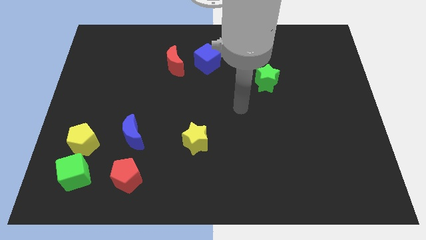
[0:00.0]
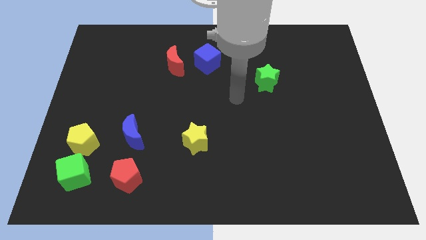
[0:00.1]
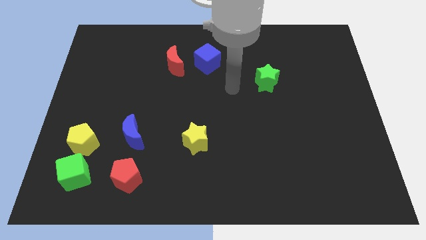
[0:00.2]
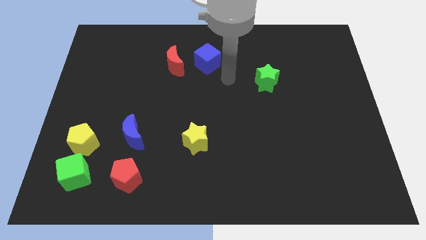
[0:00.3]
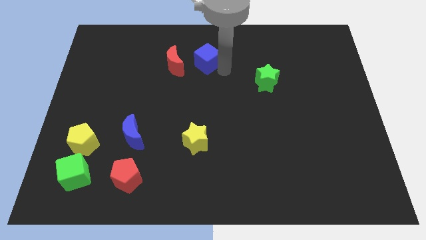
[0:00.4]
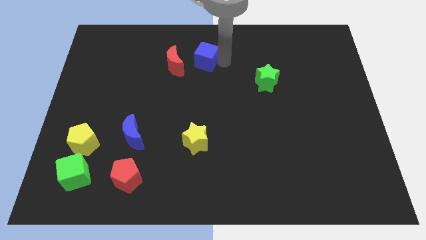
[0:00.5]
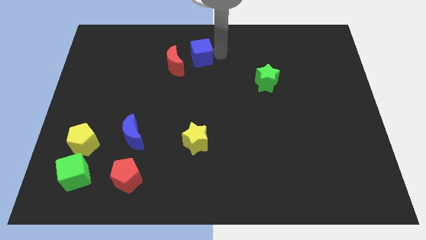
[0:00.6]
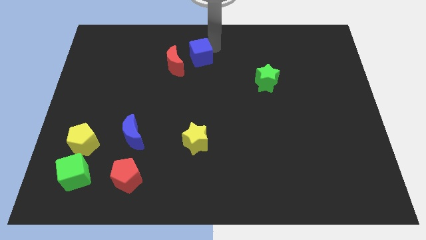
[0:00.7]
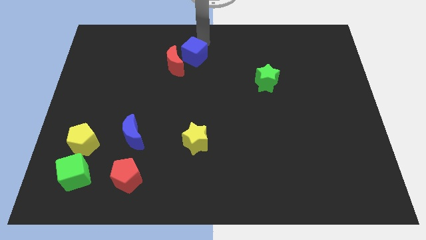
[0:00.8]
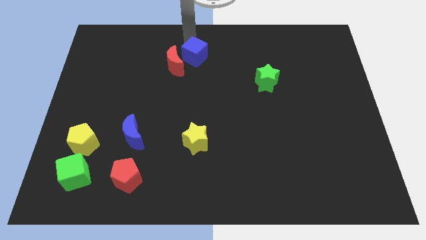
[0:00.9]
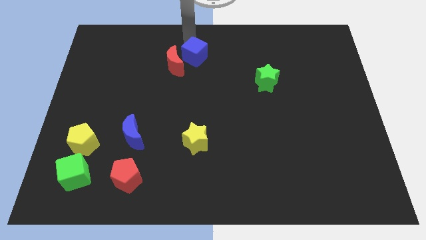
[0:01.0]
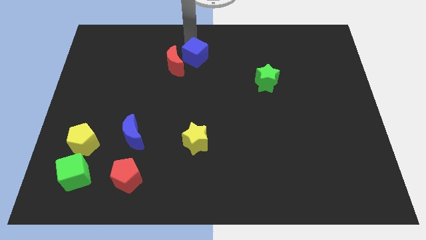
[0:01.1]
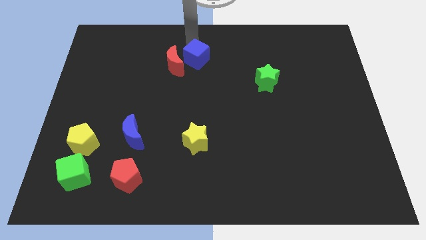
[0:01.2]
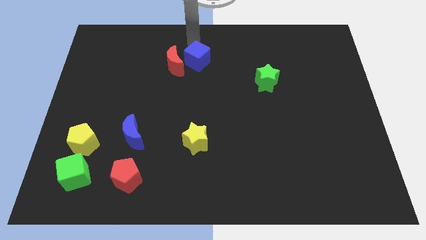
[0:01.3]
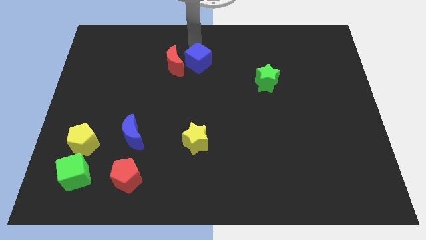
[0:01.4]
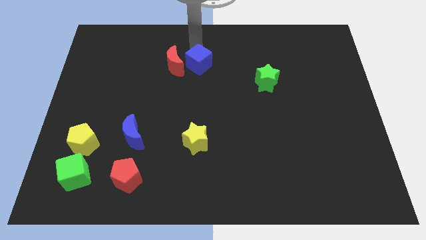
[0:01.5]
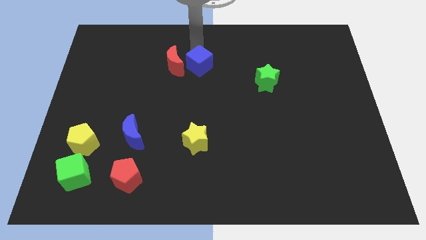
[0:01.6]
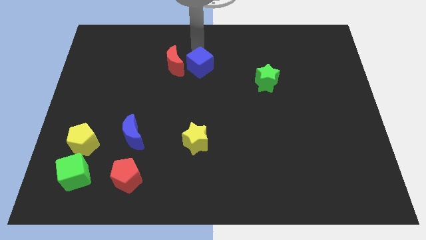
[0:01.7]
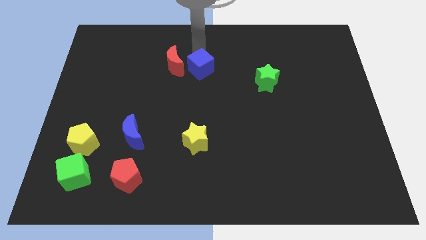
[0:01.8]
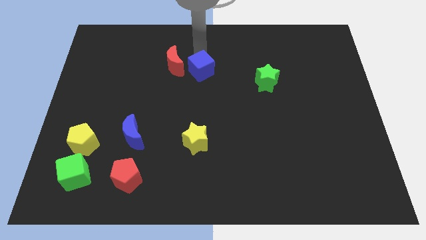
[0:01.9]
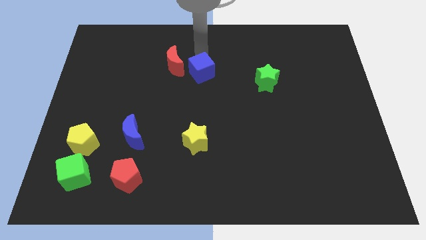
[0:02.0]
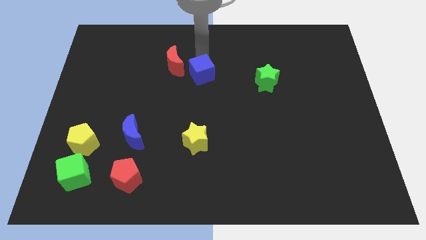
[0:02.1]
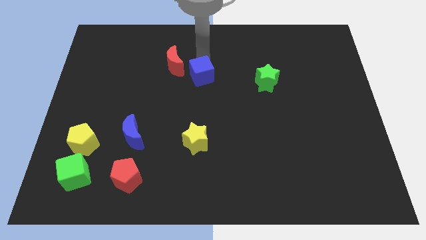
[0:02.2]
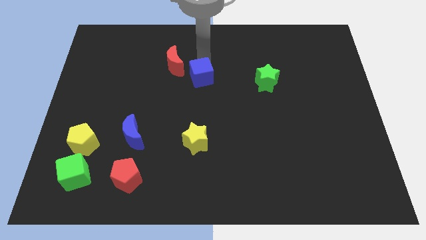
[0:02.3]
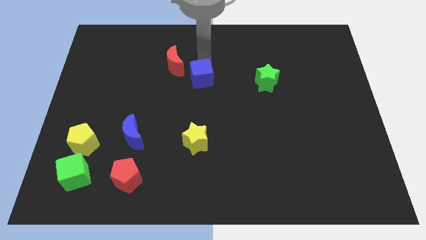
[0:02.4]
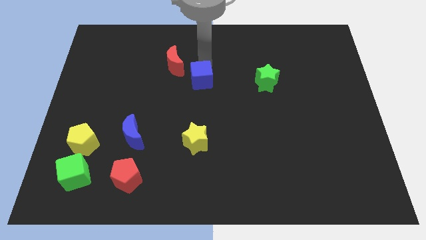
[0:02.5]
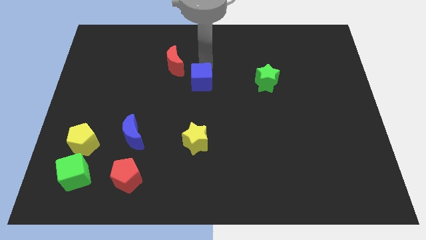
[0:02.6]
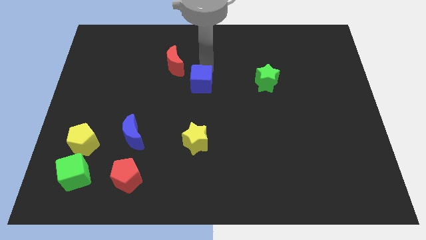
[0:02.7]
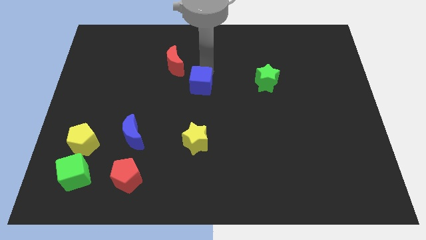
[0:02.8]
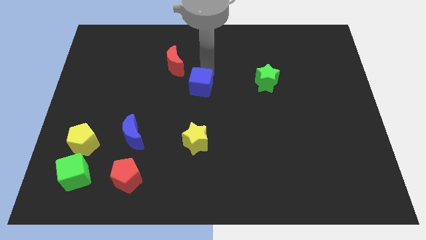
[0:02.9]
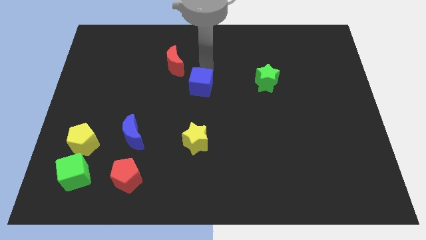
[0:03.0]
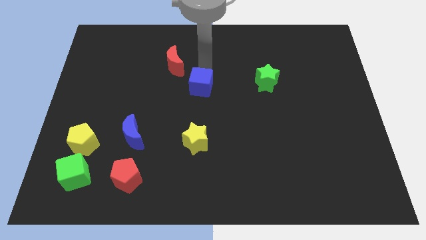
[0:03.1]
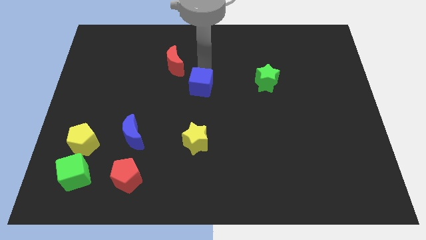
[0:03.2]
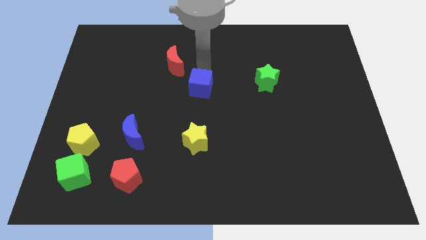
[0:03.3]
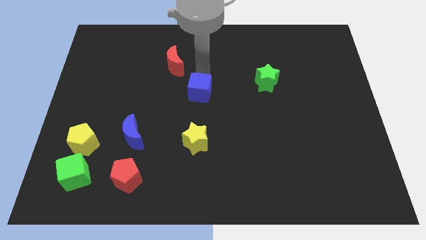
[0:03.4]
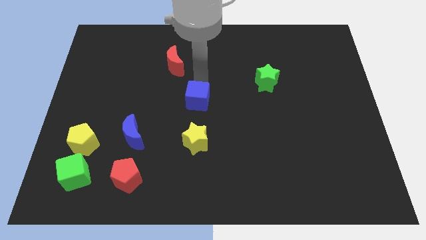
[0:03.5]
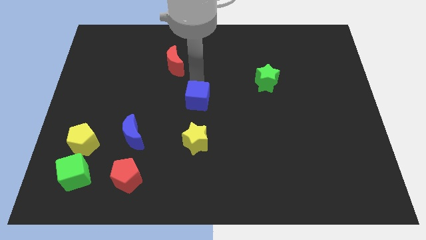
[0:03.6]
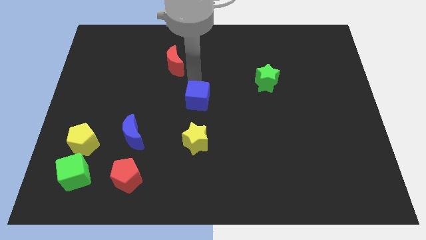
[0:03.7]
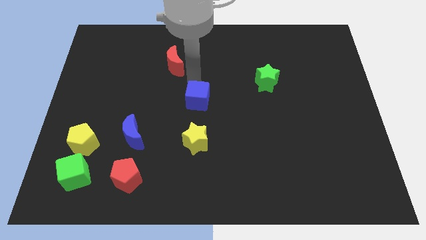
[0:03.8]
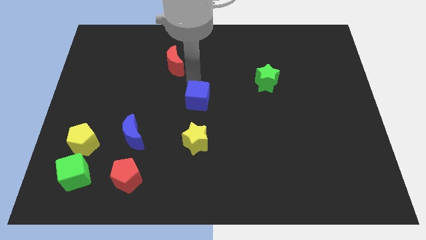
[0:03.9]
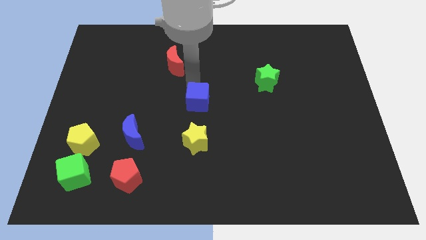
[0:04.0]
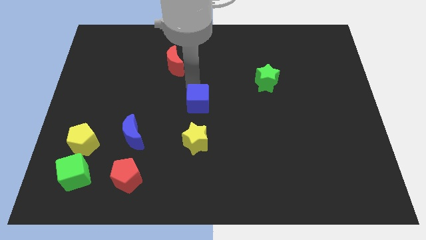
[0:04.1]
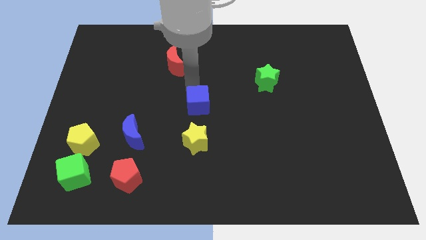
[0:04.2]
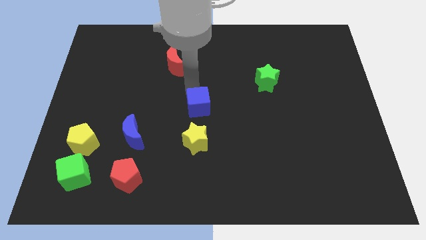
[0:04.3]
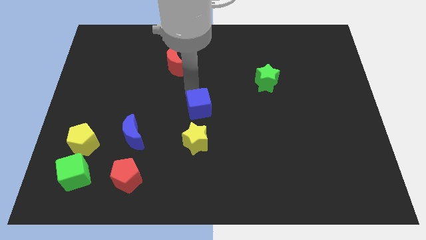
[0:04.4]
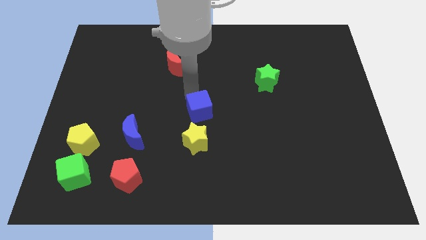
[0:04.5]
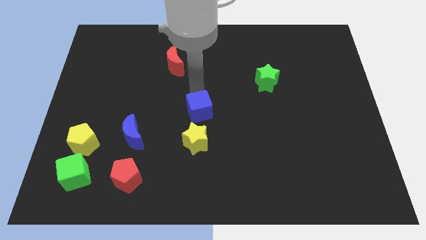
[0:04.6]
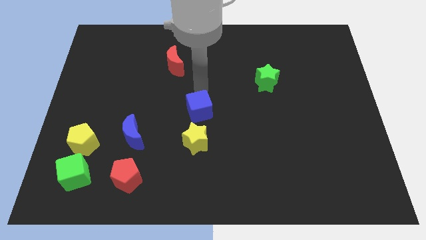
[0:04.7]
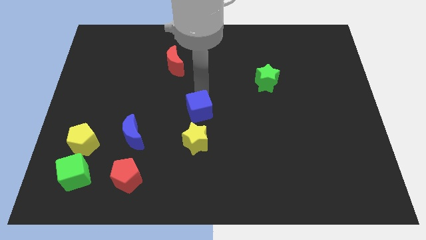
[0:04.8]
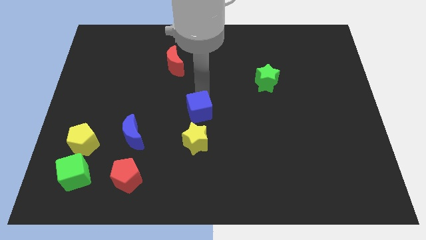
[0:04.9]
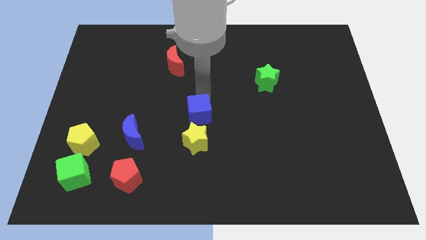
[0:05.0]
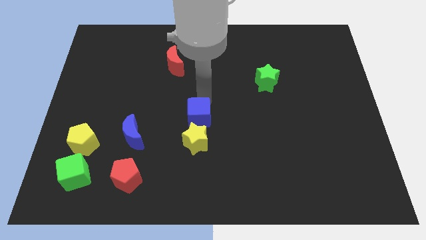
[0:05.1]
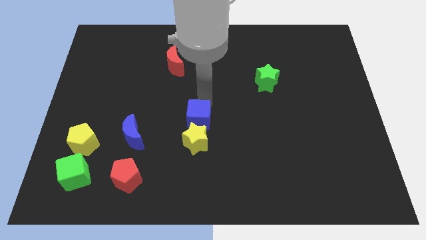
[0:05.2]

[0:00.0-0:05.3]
push the blue cube to the yellow star

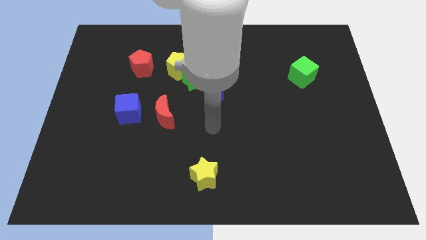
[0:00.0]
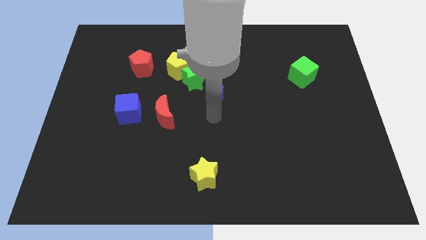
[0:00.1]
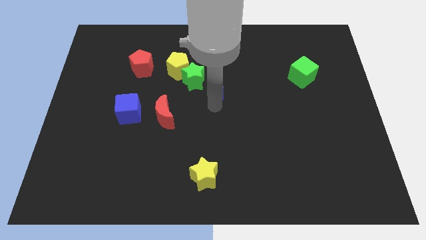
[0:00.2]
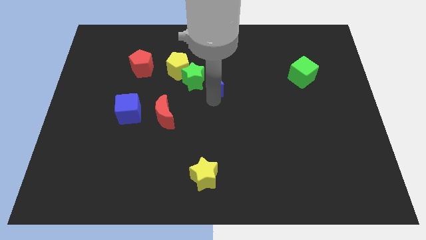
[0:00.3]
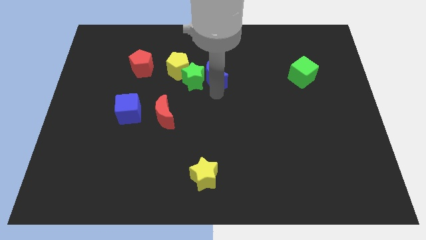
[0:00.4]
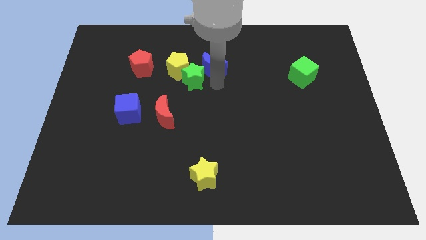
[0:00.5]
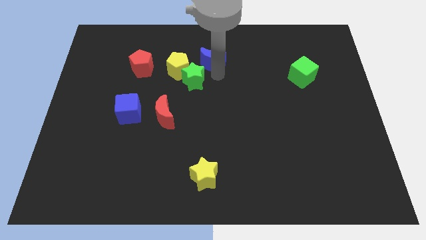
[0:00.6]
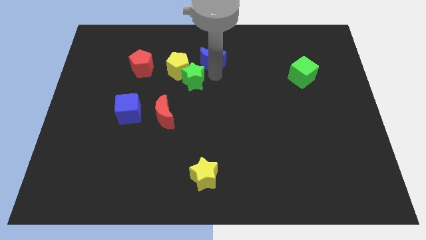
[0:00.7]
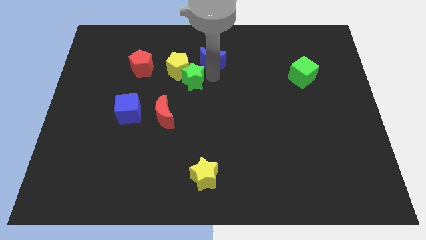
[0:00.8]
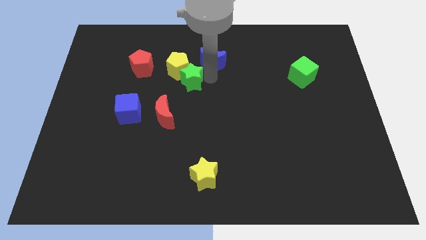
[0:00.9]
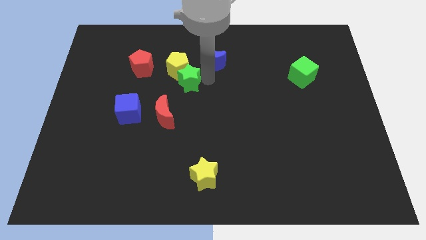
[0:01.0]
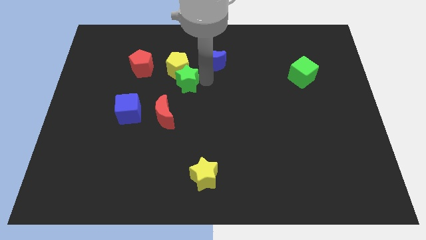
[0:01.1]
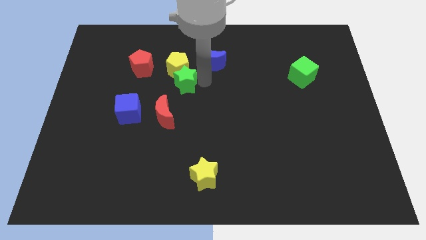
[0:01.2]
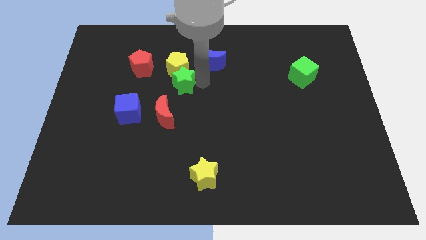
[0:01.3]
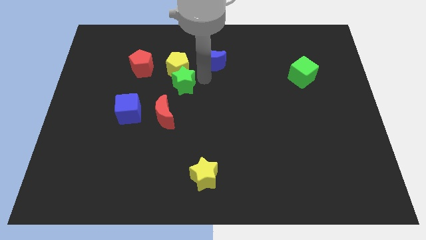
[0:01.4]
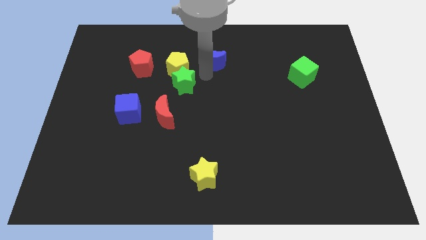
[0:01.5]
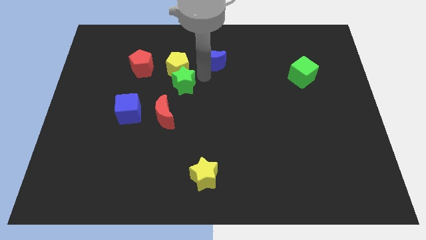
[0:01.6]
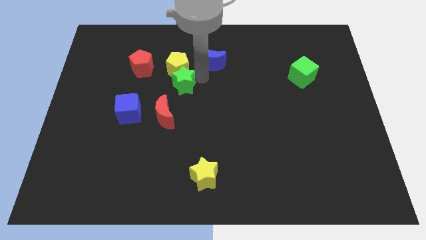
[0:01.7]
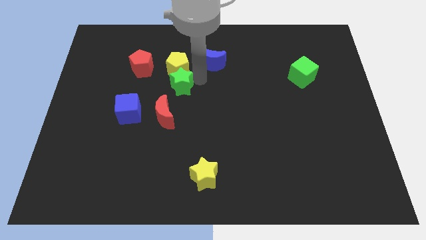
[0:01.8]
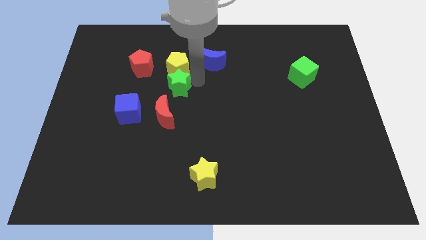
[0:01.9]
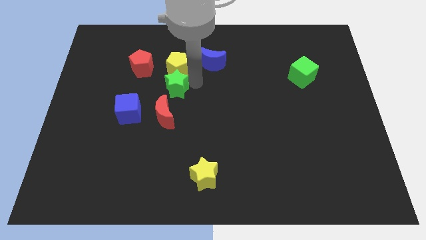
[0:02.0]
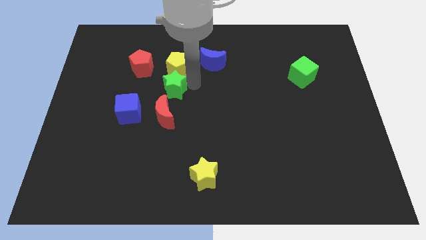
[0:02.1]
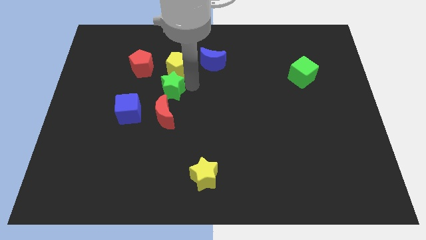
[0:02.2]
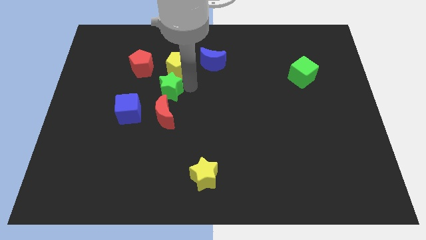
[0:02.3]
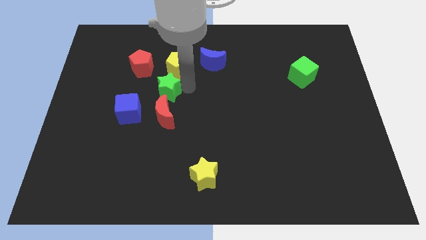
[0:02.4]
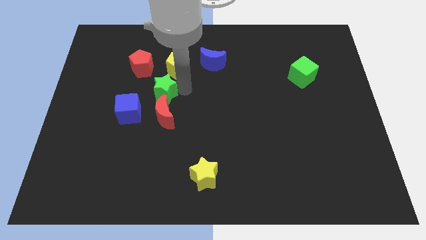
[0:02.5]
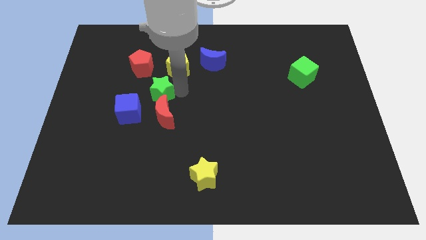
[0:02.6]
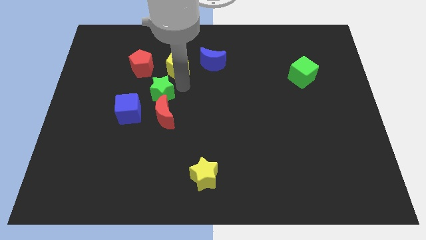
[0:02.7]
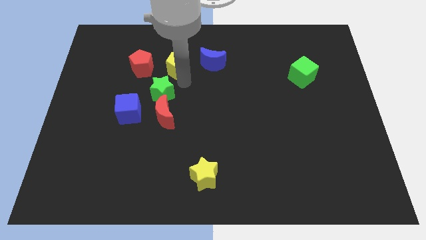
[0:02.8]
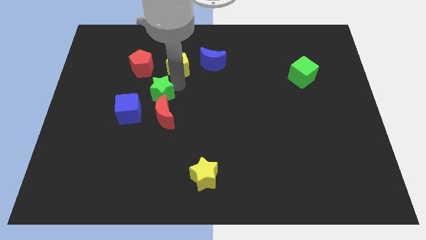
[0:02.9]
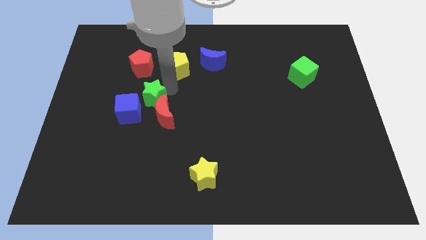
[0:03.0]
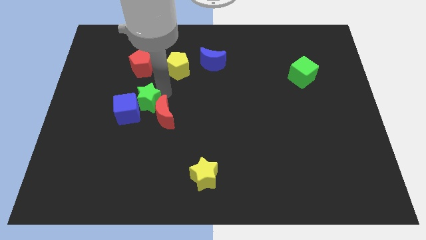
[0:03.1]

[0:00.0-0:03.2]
move the green star to the blue cube

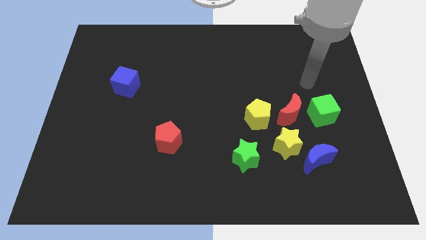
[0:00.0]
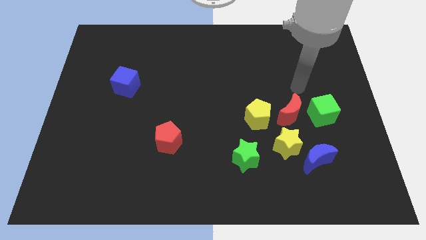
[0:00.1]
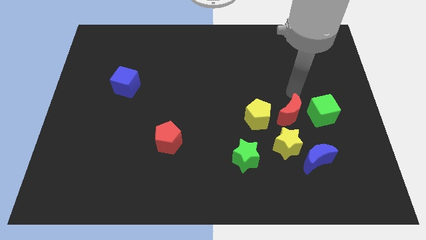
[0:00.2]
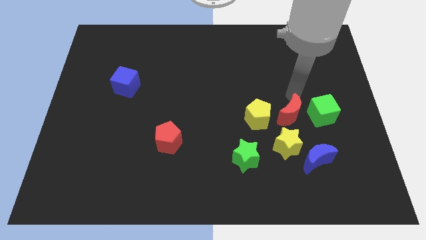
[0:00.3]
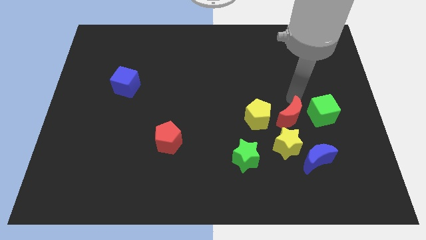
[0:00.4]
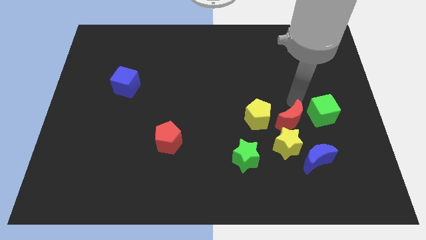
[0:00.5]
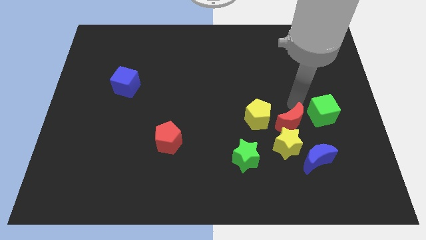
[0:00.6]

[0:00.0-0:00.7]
move the red moon towards the yellow star
